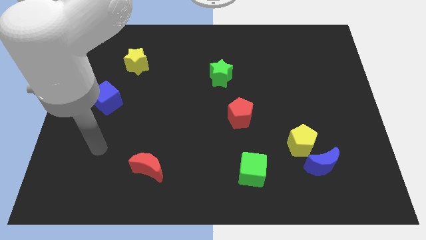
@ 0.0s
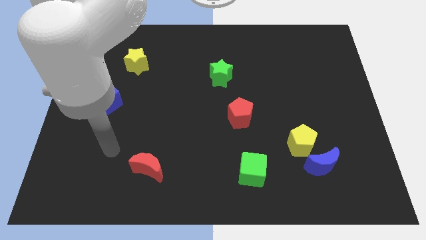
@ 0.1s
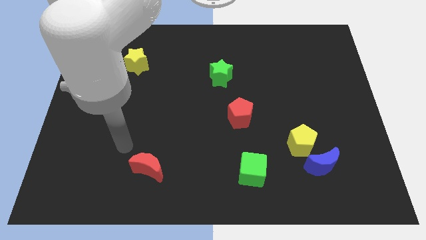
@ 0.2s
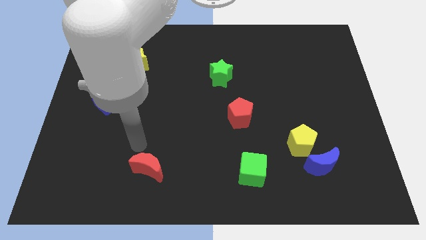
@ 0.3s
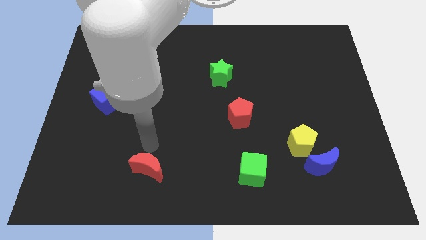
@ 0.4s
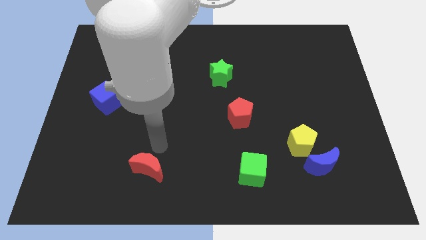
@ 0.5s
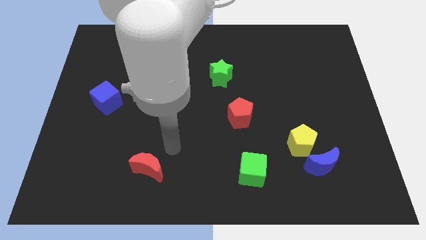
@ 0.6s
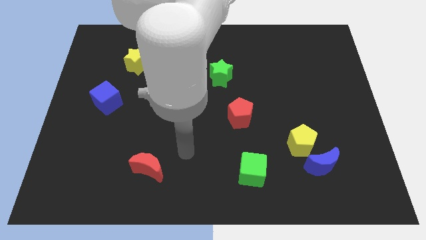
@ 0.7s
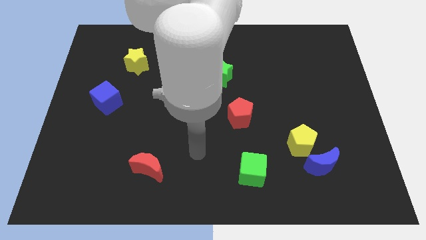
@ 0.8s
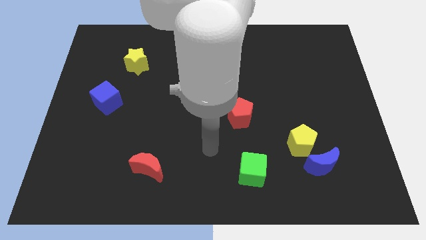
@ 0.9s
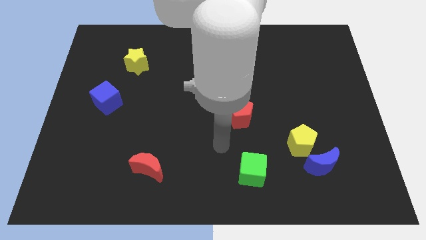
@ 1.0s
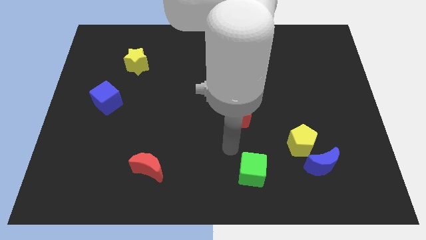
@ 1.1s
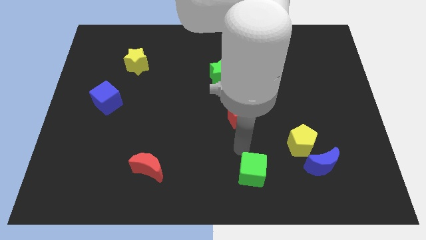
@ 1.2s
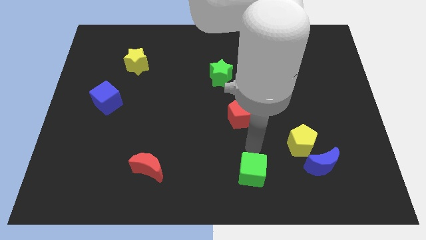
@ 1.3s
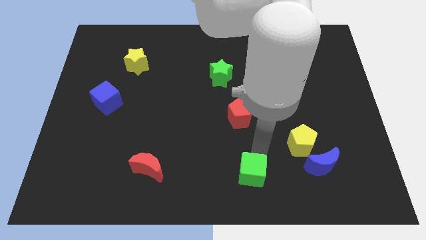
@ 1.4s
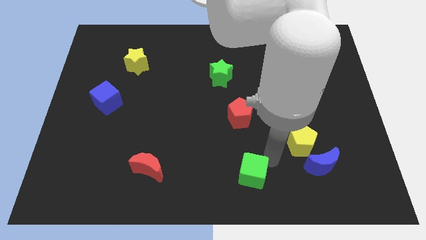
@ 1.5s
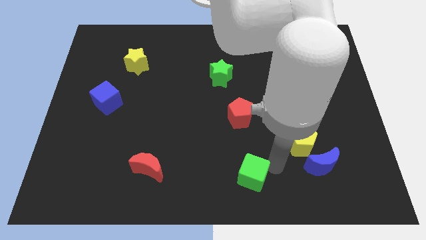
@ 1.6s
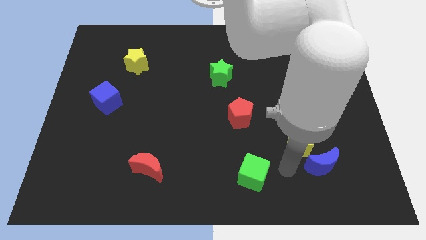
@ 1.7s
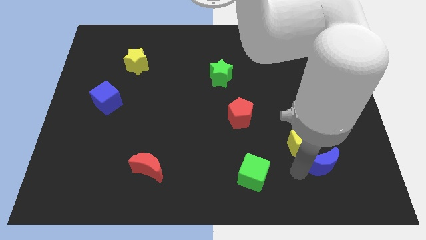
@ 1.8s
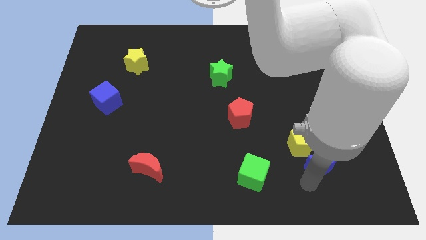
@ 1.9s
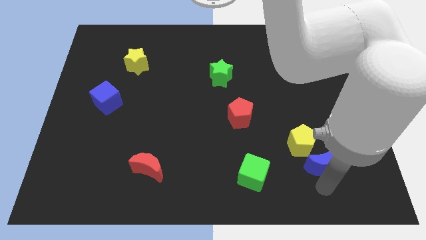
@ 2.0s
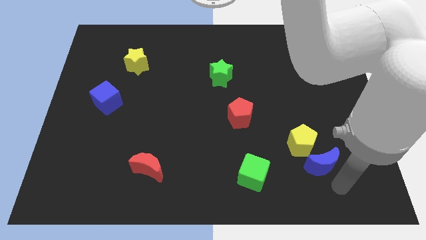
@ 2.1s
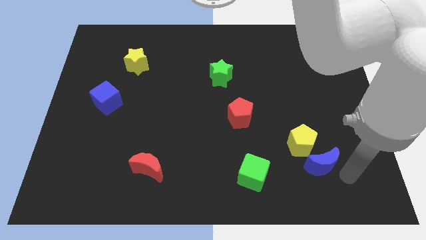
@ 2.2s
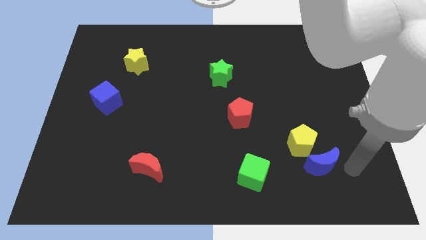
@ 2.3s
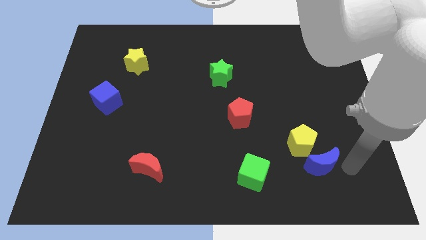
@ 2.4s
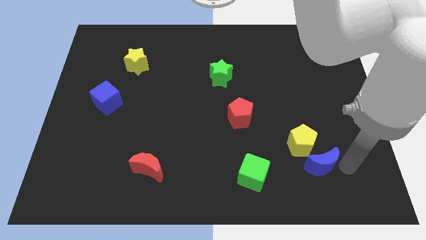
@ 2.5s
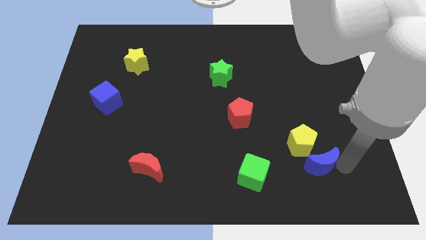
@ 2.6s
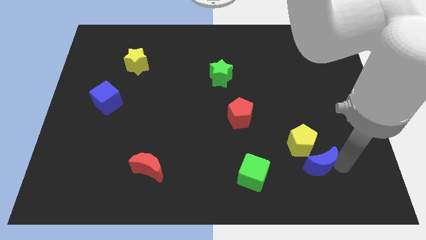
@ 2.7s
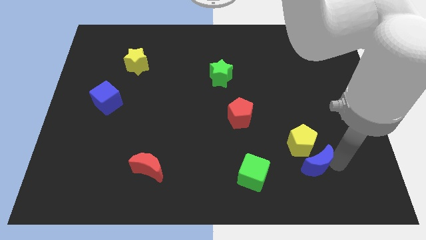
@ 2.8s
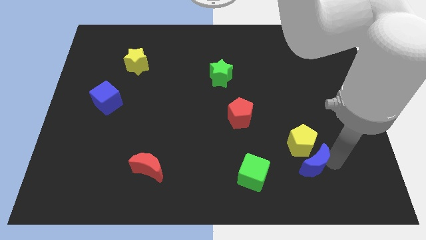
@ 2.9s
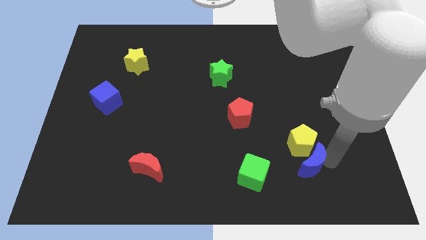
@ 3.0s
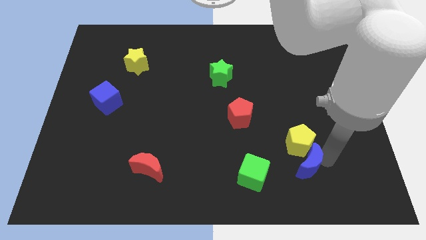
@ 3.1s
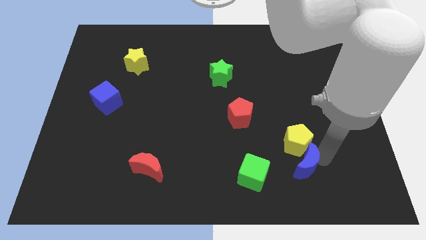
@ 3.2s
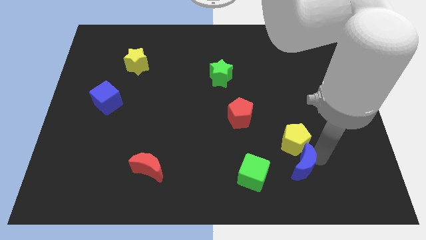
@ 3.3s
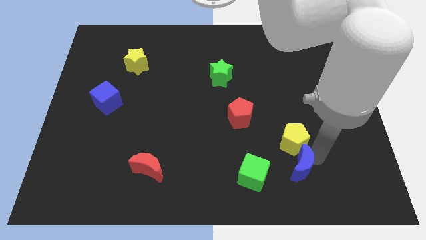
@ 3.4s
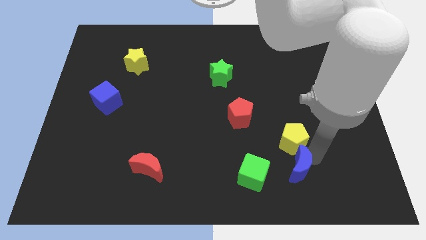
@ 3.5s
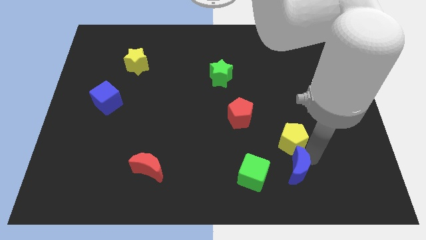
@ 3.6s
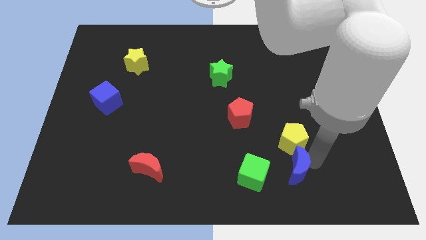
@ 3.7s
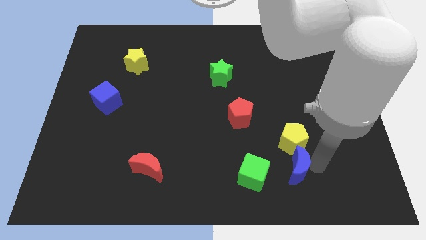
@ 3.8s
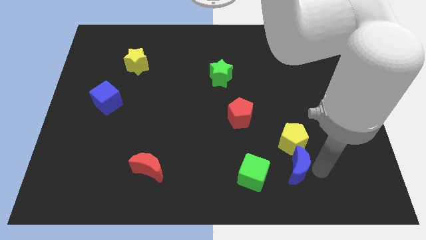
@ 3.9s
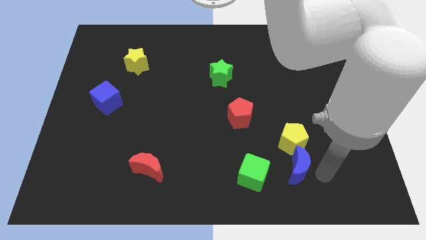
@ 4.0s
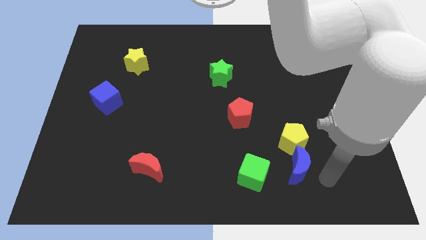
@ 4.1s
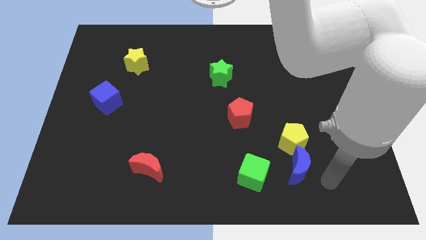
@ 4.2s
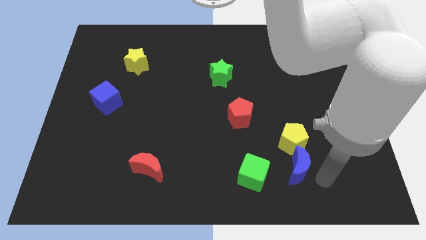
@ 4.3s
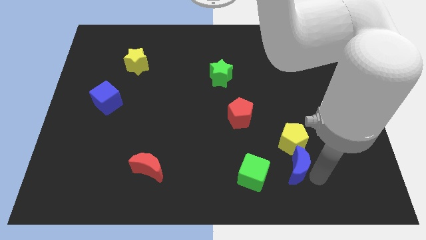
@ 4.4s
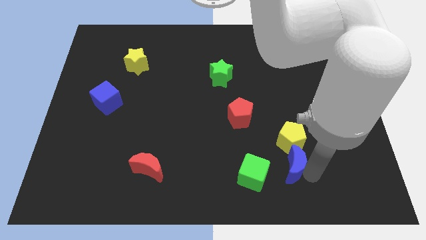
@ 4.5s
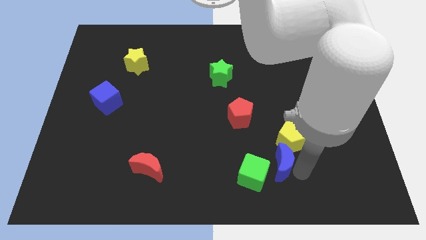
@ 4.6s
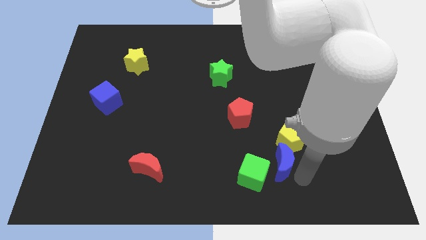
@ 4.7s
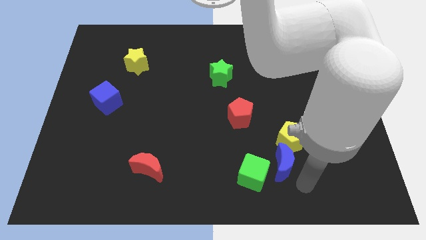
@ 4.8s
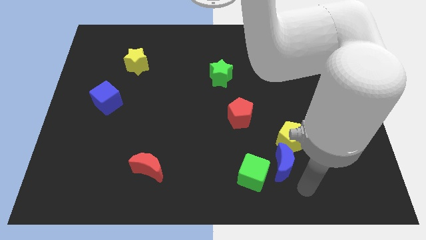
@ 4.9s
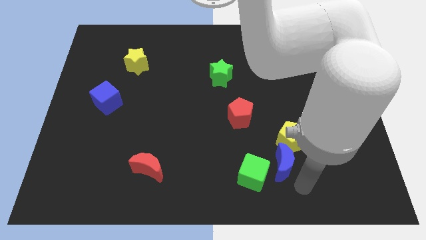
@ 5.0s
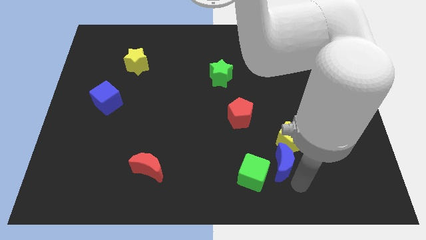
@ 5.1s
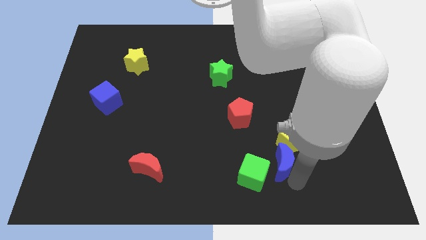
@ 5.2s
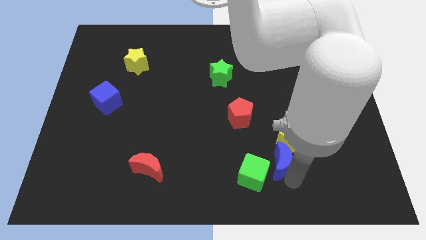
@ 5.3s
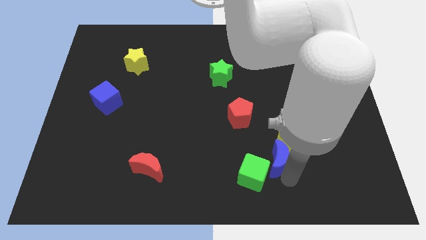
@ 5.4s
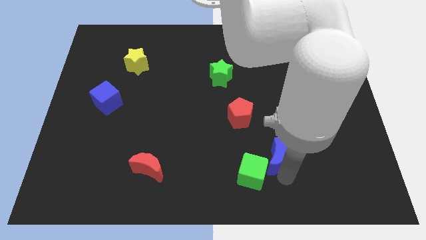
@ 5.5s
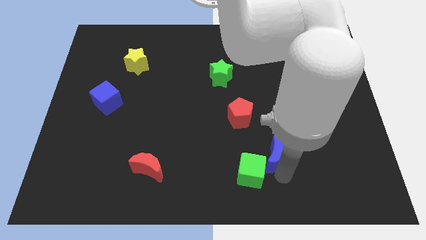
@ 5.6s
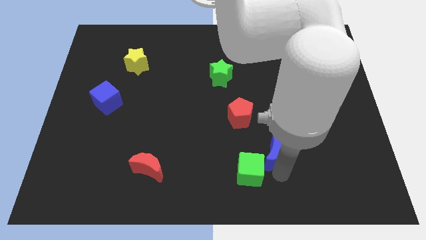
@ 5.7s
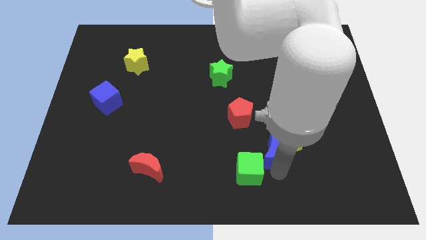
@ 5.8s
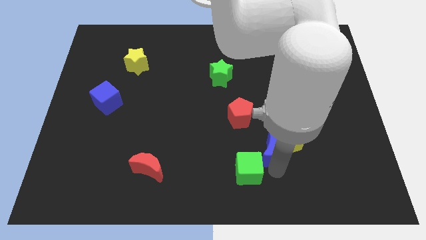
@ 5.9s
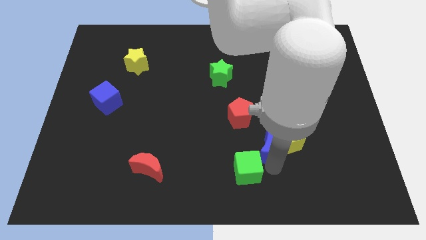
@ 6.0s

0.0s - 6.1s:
push the blue moon above the green cube

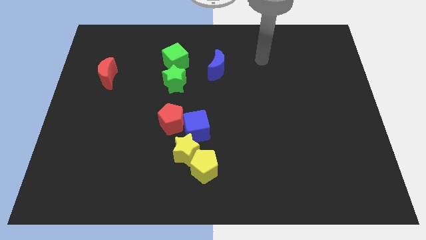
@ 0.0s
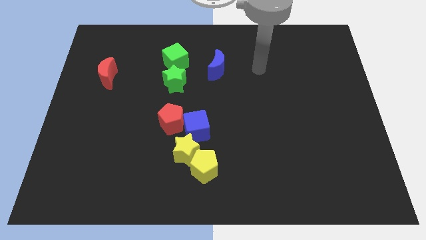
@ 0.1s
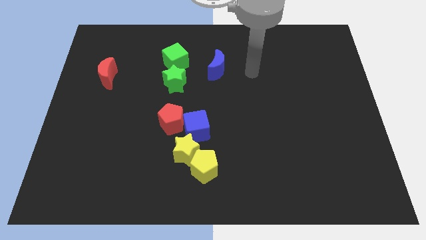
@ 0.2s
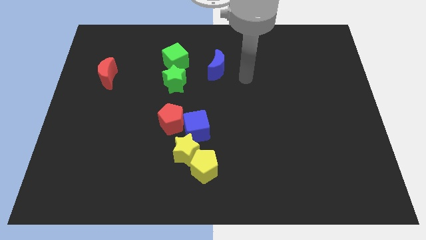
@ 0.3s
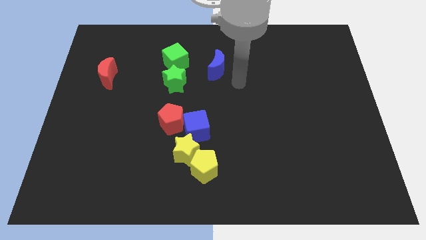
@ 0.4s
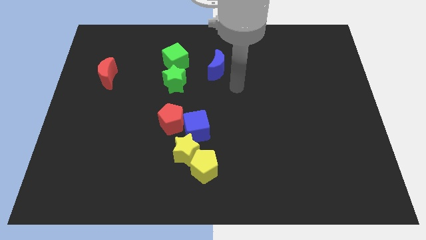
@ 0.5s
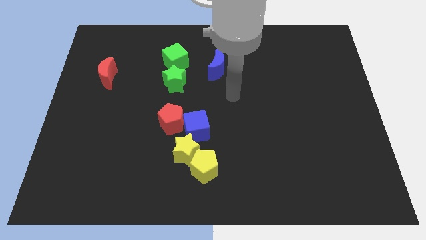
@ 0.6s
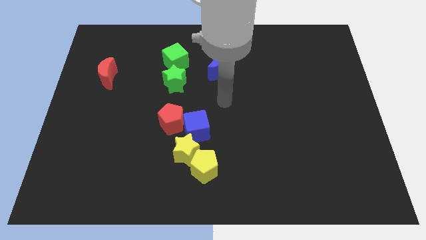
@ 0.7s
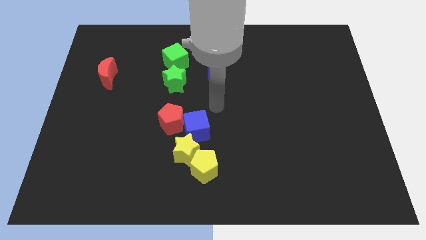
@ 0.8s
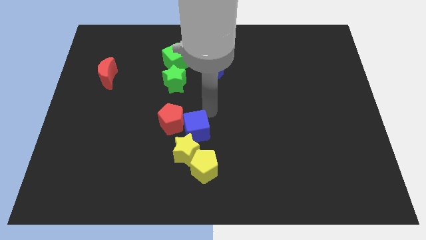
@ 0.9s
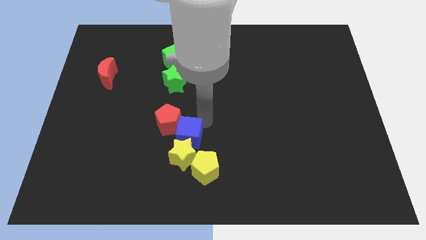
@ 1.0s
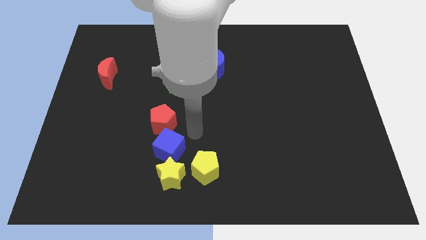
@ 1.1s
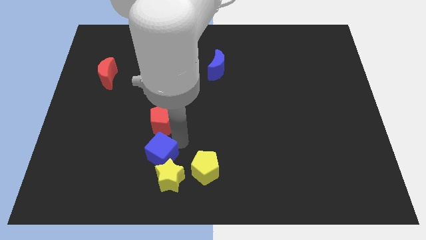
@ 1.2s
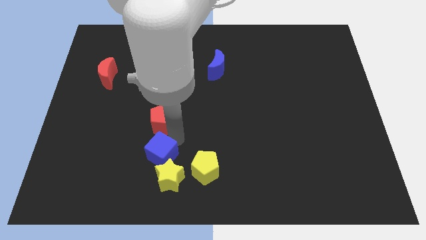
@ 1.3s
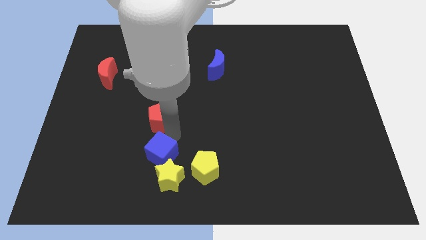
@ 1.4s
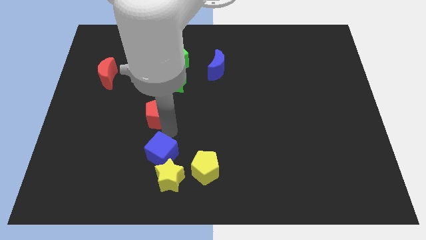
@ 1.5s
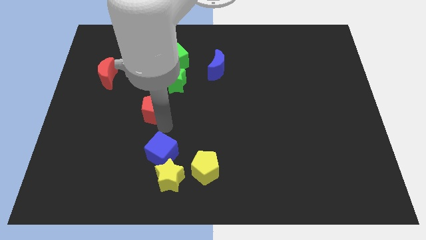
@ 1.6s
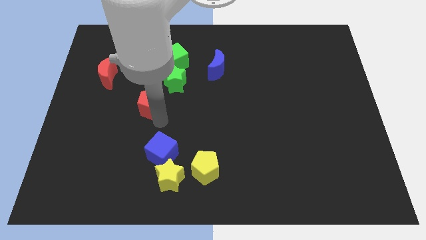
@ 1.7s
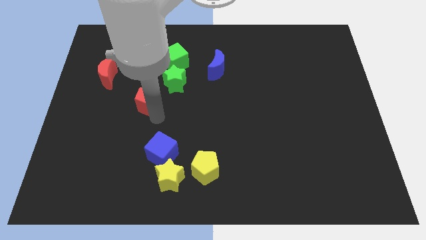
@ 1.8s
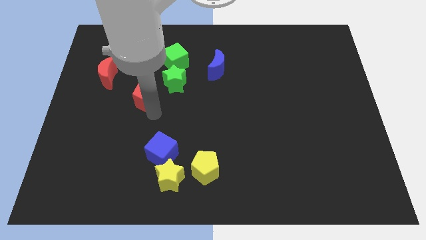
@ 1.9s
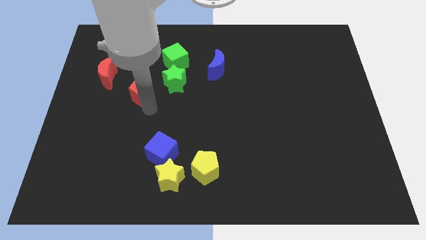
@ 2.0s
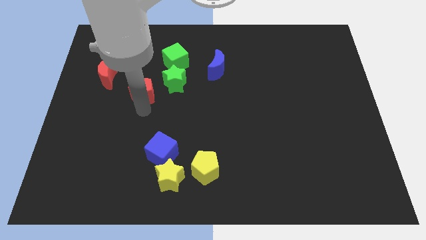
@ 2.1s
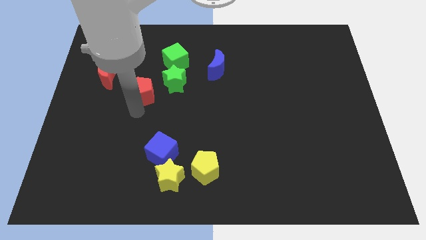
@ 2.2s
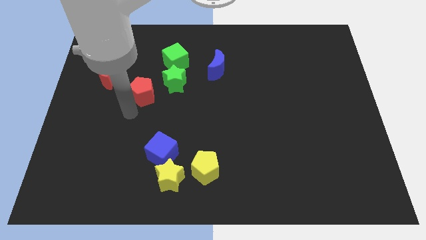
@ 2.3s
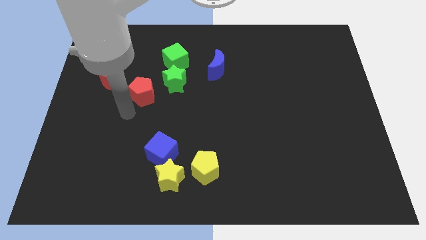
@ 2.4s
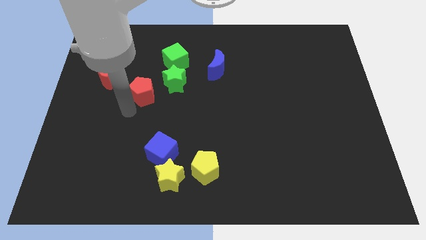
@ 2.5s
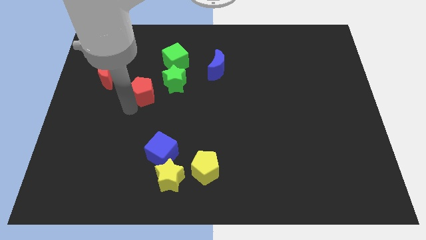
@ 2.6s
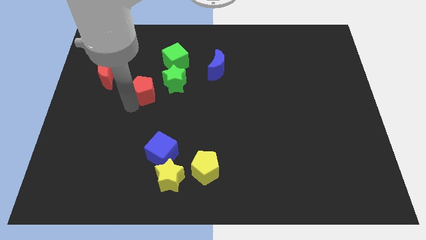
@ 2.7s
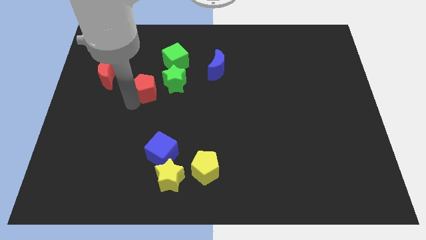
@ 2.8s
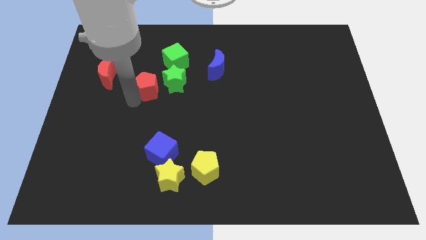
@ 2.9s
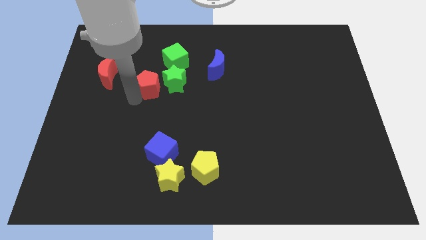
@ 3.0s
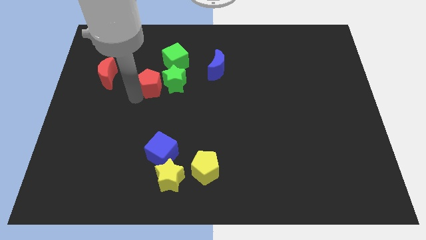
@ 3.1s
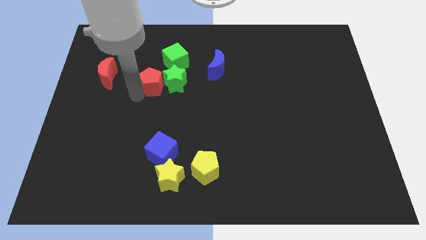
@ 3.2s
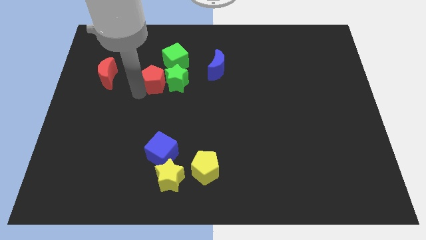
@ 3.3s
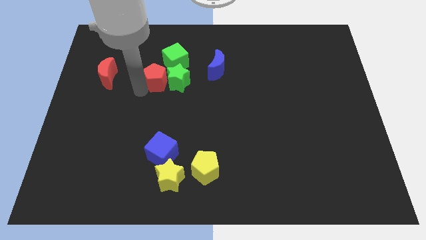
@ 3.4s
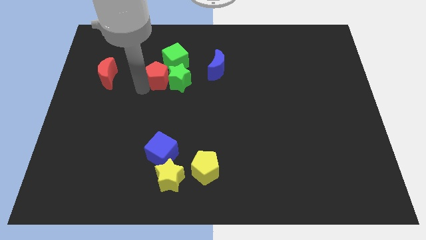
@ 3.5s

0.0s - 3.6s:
slide the red pentagon left of the blue moon
